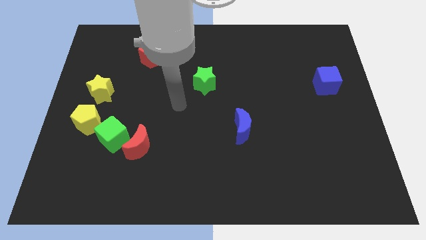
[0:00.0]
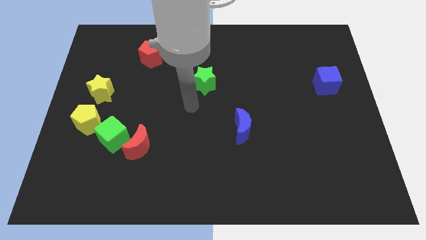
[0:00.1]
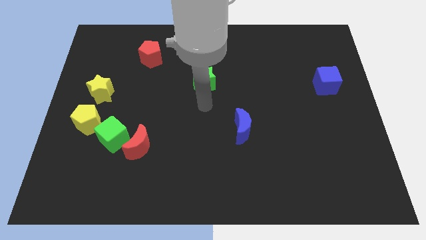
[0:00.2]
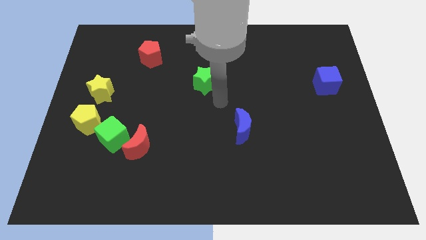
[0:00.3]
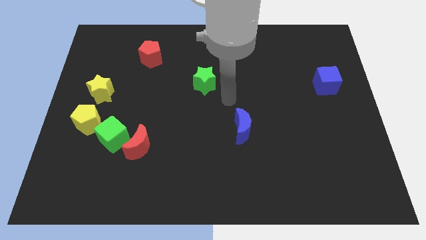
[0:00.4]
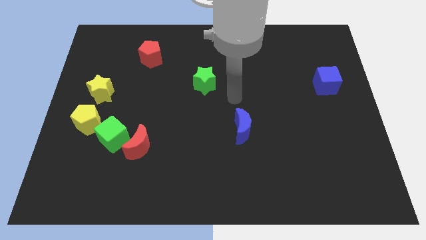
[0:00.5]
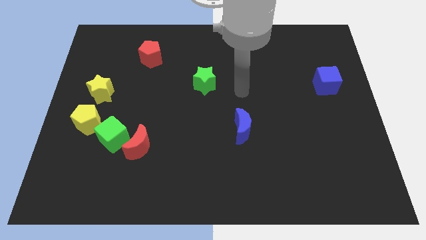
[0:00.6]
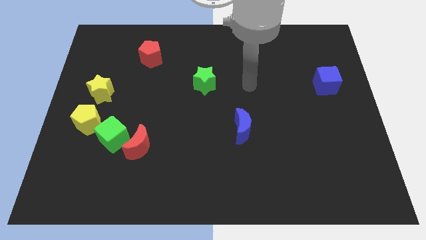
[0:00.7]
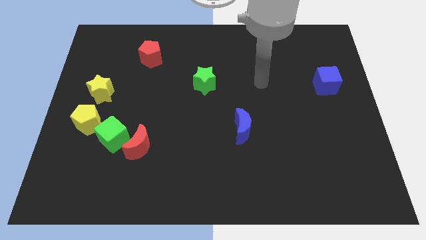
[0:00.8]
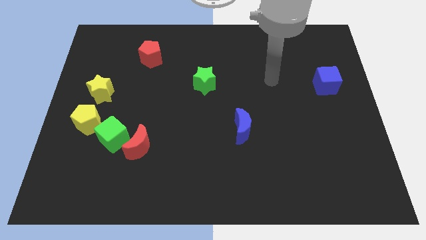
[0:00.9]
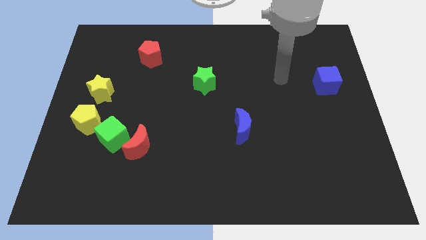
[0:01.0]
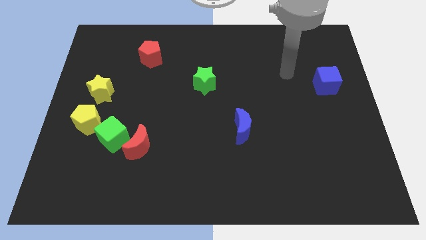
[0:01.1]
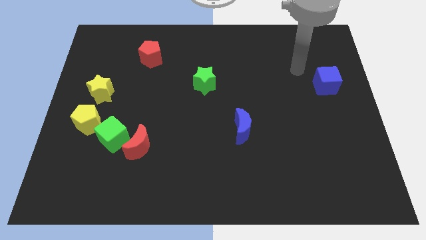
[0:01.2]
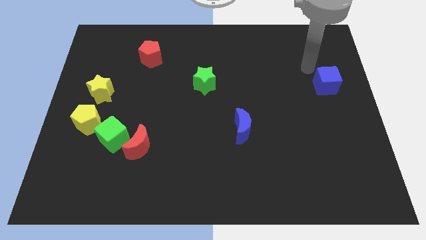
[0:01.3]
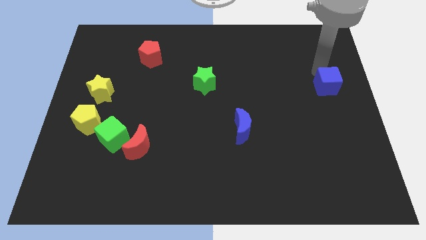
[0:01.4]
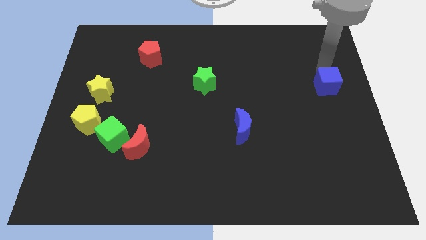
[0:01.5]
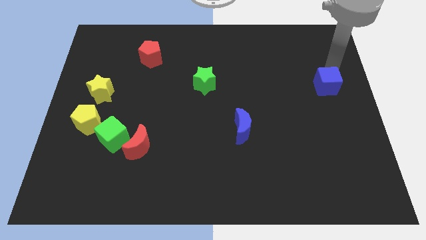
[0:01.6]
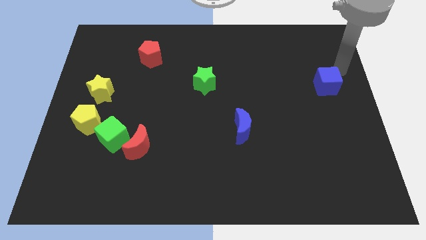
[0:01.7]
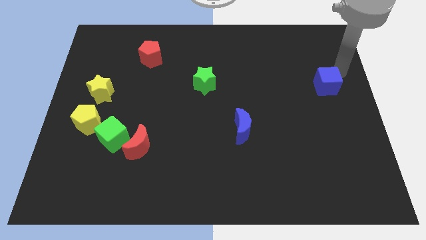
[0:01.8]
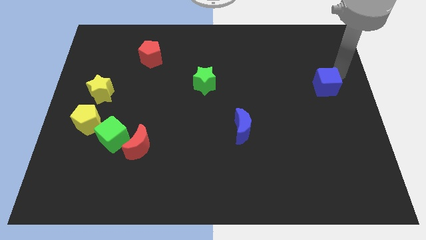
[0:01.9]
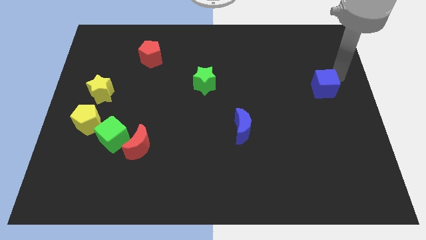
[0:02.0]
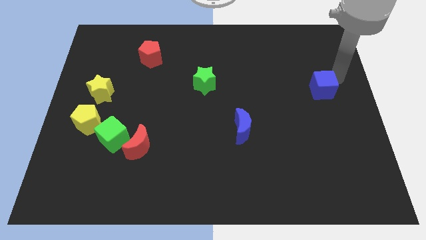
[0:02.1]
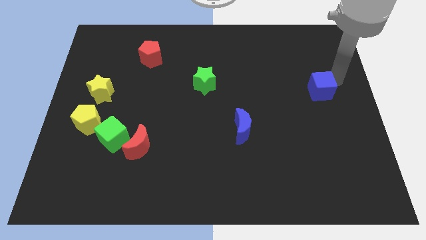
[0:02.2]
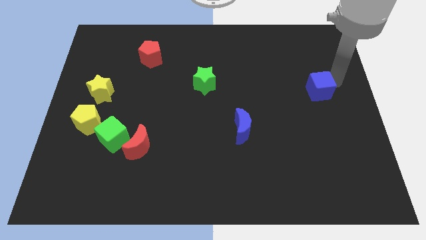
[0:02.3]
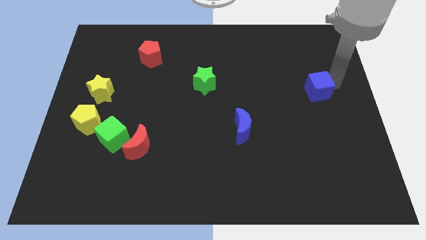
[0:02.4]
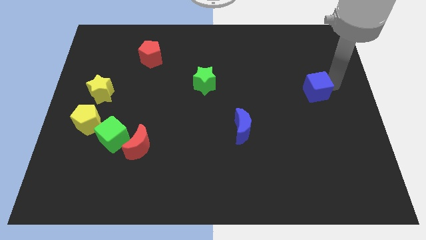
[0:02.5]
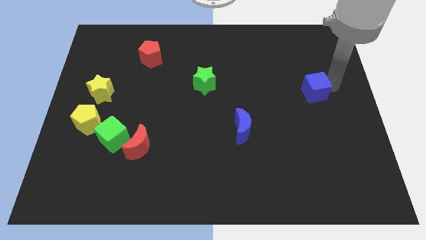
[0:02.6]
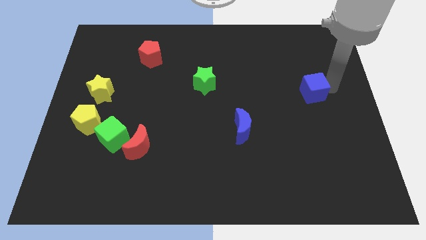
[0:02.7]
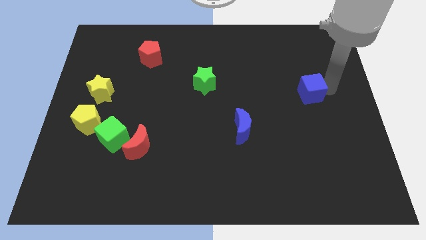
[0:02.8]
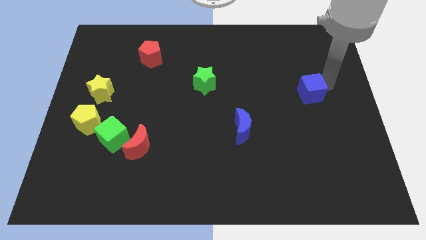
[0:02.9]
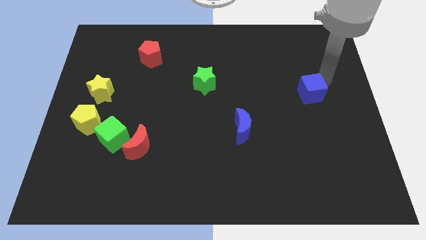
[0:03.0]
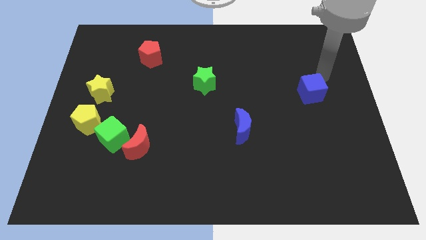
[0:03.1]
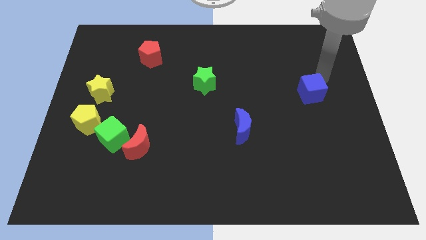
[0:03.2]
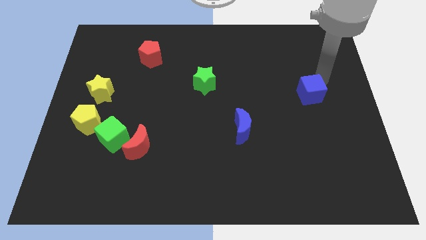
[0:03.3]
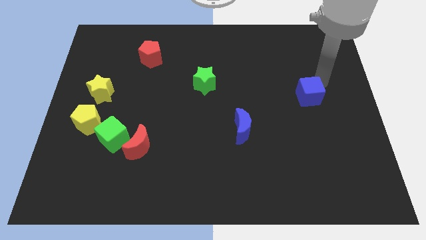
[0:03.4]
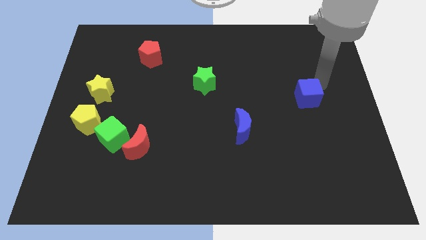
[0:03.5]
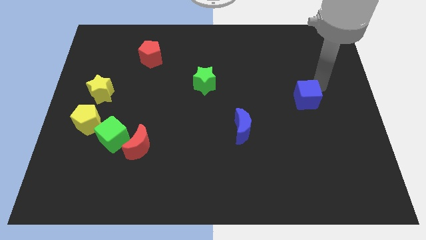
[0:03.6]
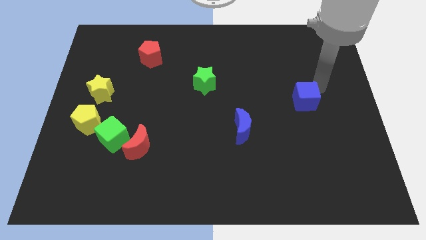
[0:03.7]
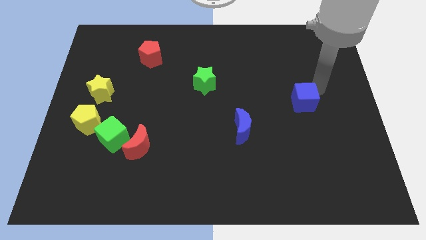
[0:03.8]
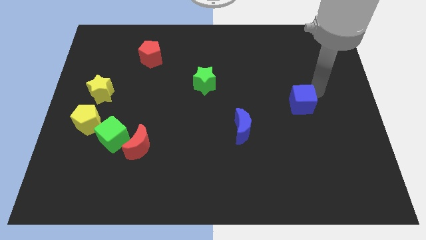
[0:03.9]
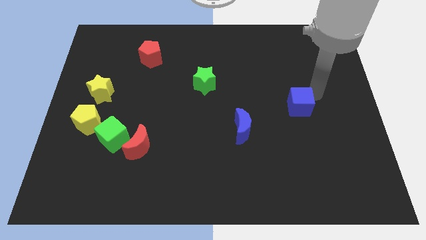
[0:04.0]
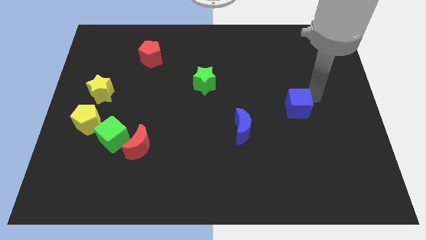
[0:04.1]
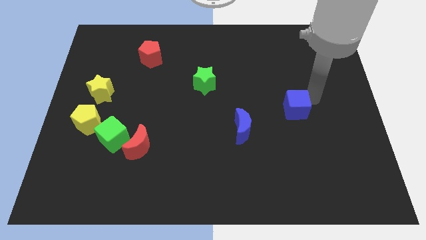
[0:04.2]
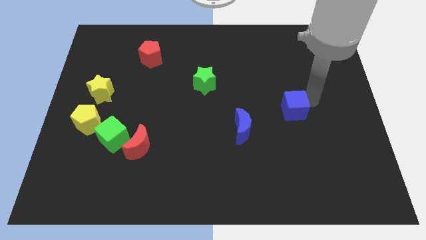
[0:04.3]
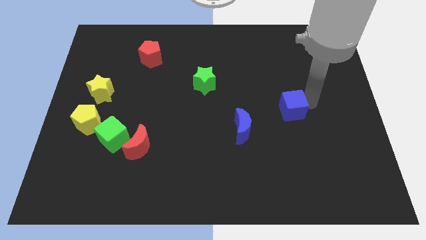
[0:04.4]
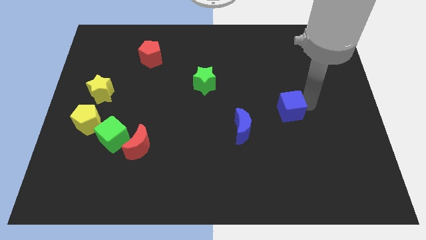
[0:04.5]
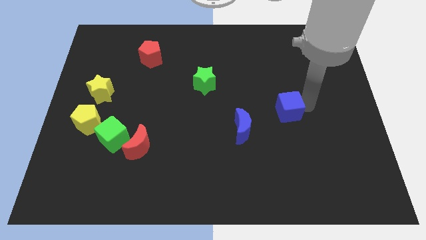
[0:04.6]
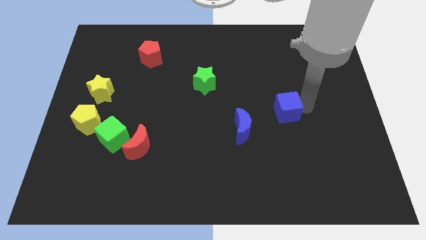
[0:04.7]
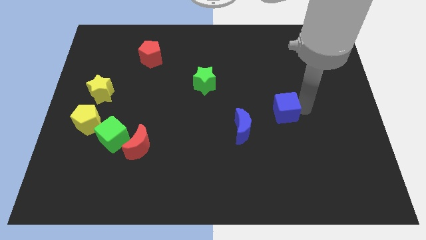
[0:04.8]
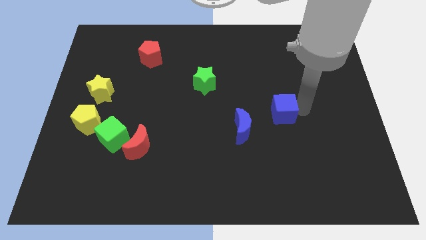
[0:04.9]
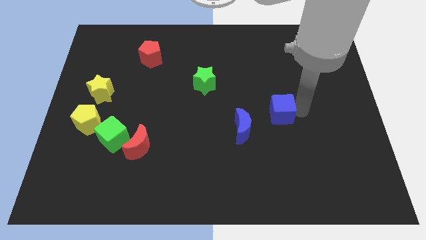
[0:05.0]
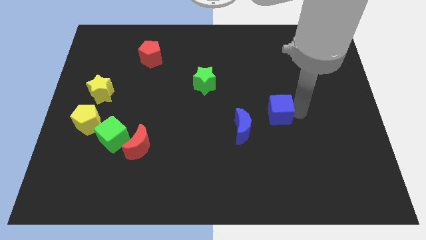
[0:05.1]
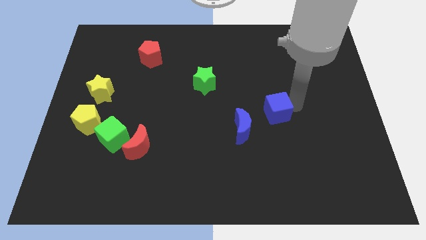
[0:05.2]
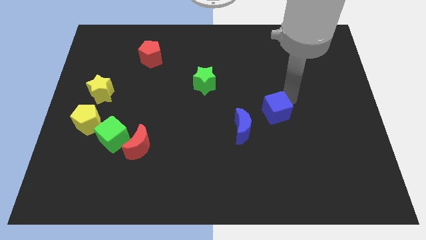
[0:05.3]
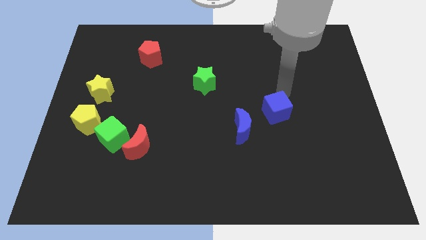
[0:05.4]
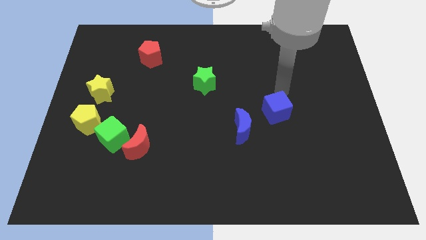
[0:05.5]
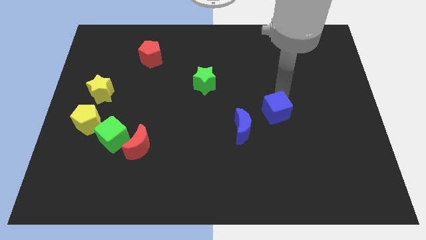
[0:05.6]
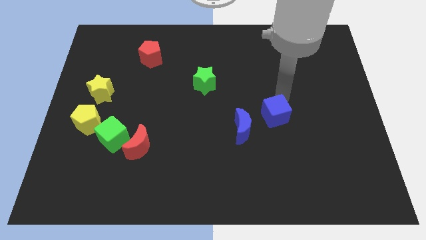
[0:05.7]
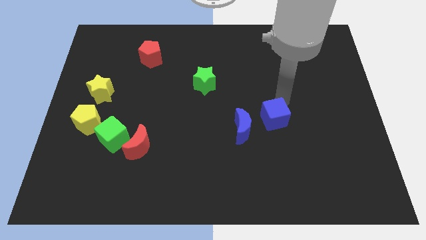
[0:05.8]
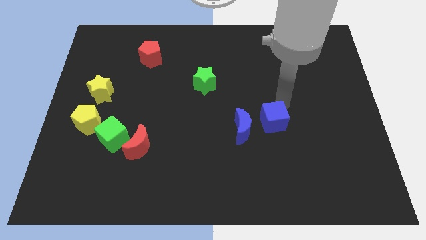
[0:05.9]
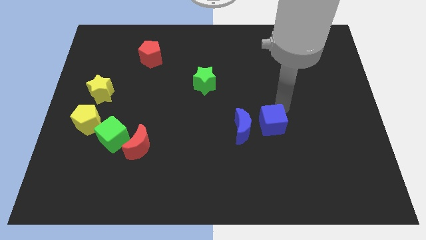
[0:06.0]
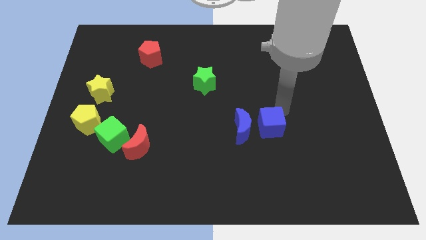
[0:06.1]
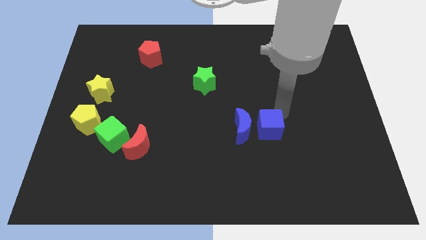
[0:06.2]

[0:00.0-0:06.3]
push the blue cube diagonally down and to the right of the blue moon
